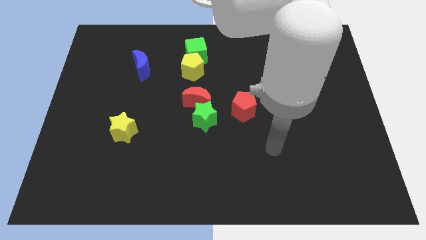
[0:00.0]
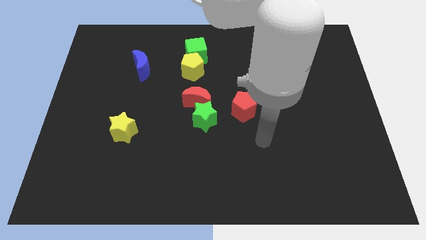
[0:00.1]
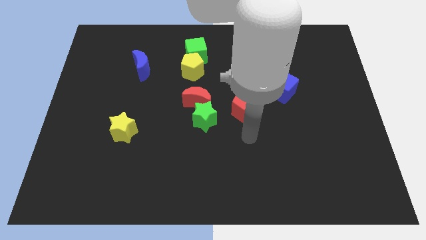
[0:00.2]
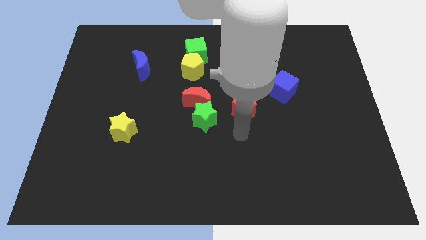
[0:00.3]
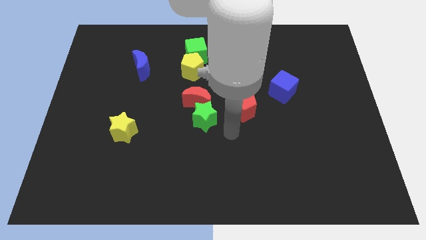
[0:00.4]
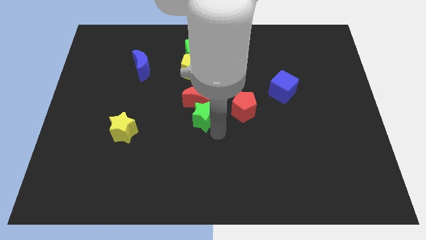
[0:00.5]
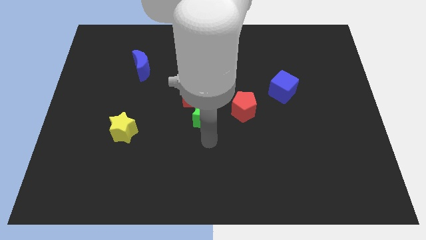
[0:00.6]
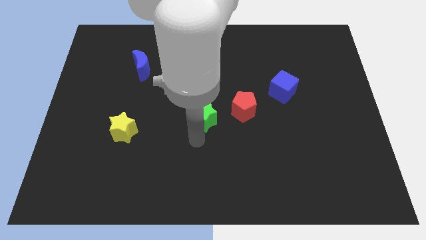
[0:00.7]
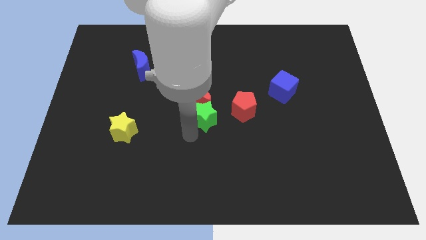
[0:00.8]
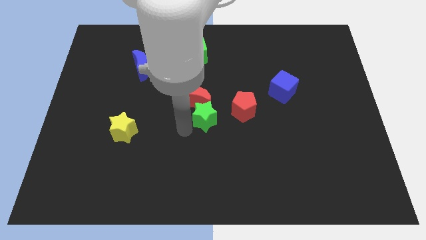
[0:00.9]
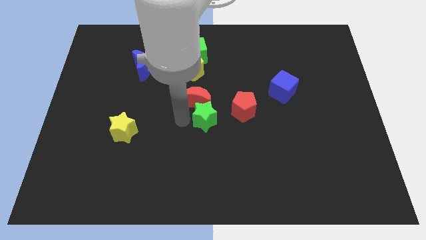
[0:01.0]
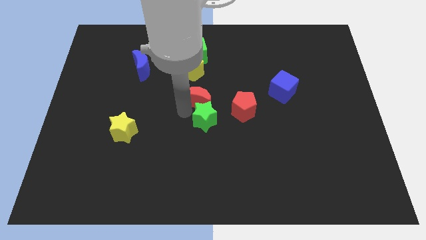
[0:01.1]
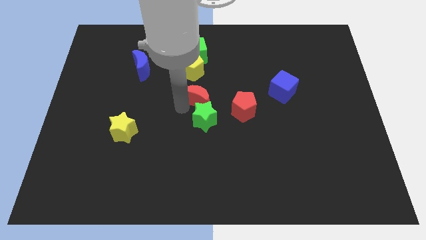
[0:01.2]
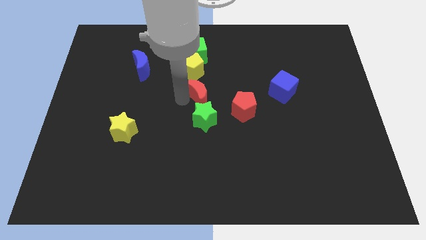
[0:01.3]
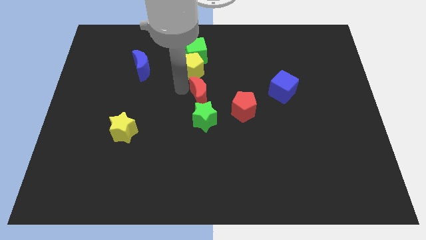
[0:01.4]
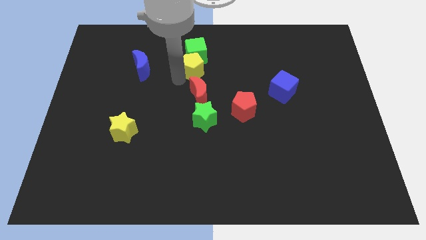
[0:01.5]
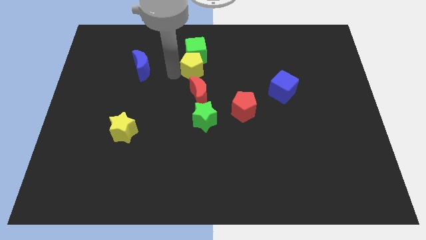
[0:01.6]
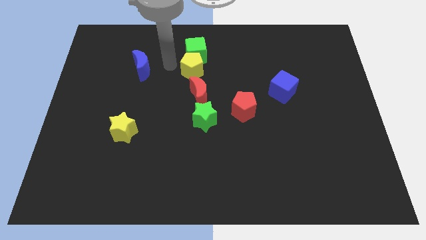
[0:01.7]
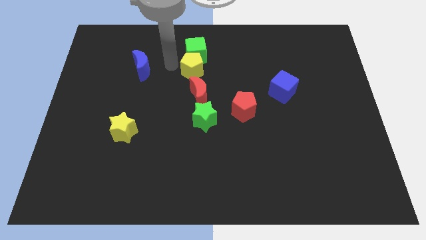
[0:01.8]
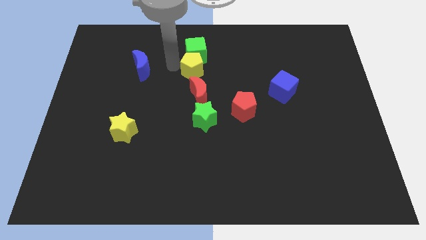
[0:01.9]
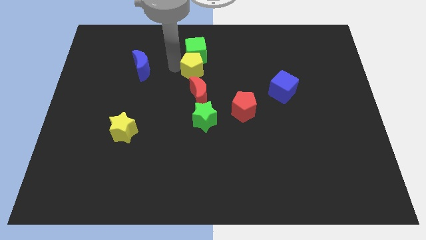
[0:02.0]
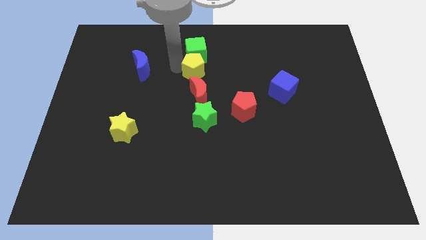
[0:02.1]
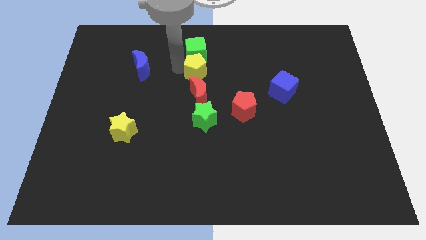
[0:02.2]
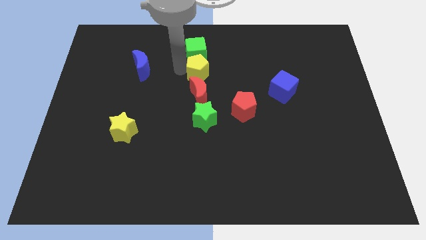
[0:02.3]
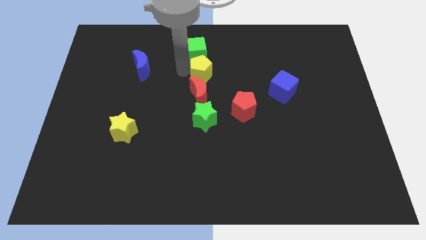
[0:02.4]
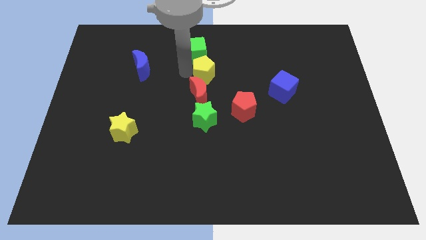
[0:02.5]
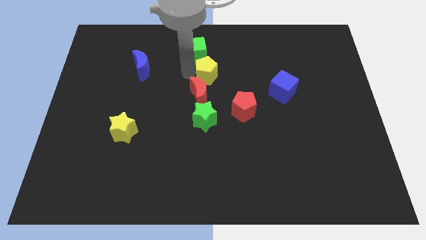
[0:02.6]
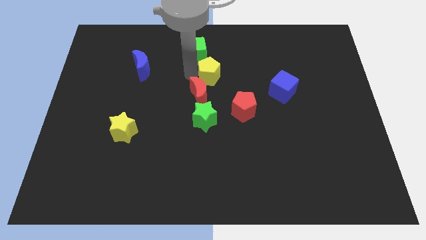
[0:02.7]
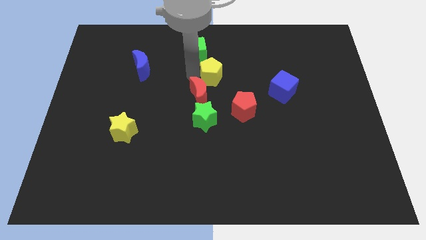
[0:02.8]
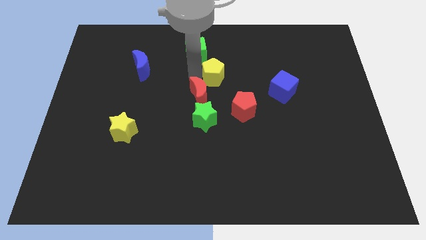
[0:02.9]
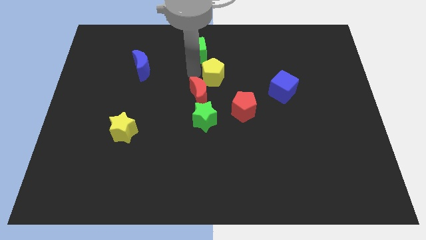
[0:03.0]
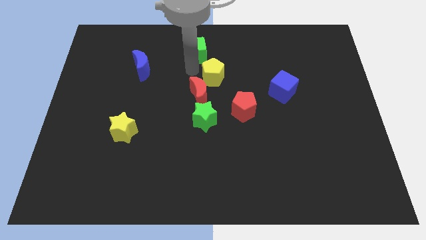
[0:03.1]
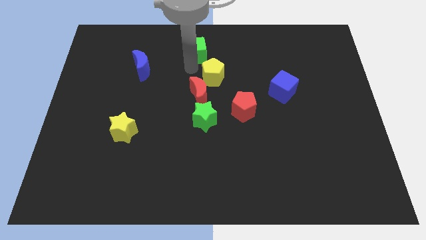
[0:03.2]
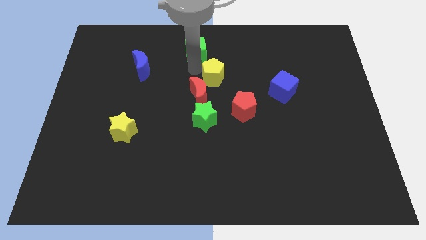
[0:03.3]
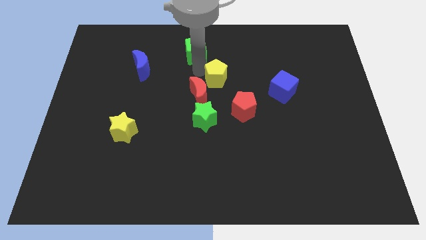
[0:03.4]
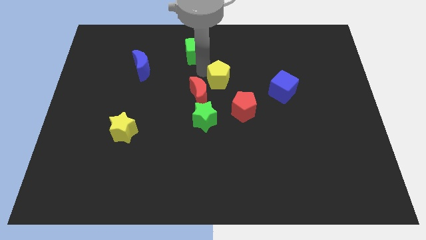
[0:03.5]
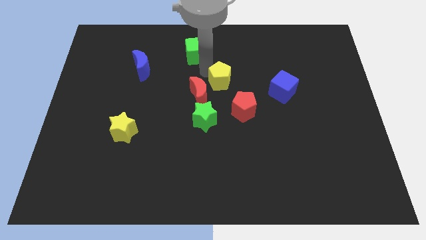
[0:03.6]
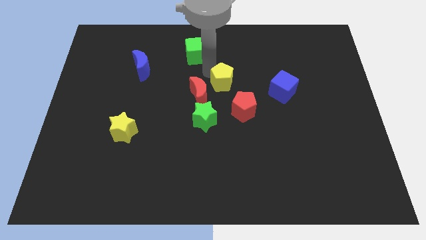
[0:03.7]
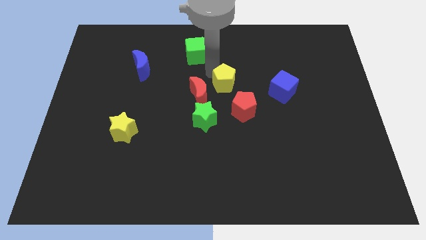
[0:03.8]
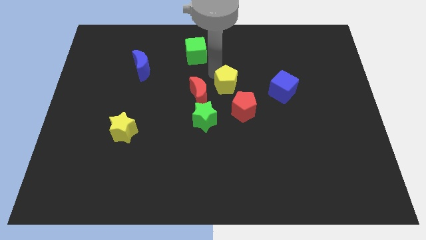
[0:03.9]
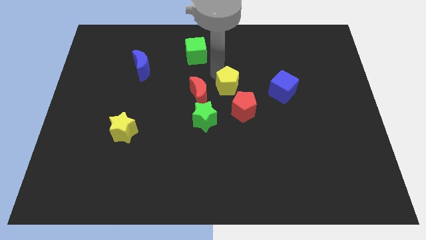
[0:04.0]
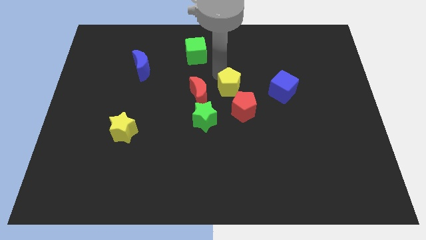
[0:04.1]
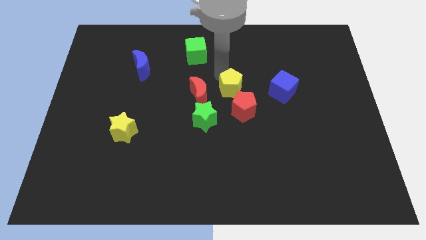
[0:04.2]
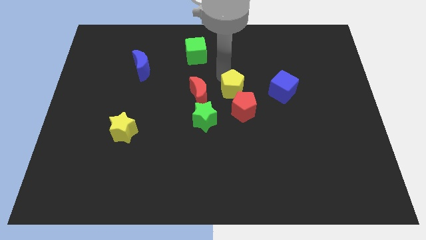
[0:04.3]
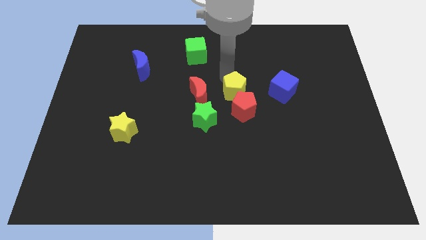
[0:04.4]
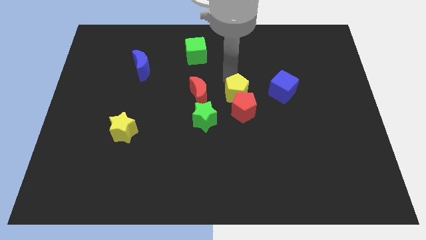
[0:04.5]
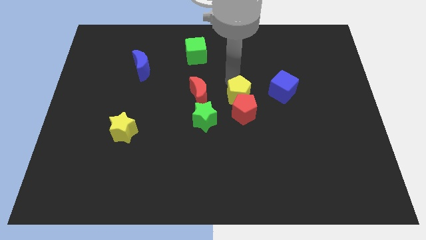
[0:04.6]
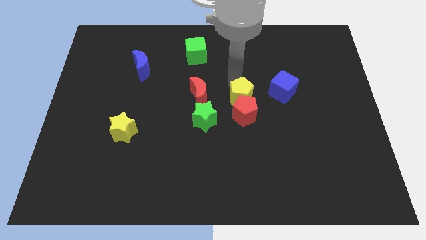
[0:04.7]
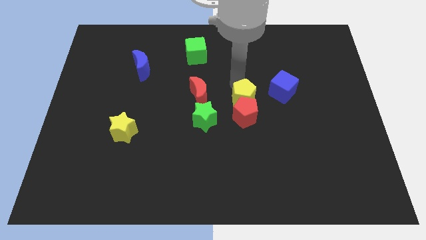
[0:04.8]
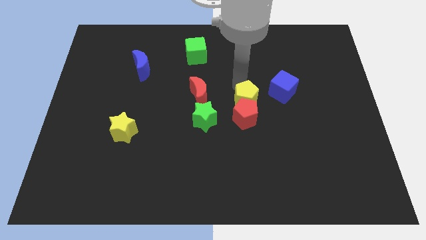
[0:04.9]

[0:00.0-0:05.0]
push the yellow pentagon diagonally down and to the left of the blue cube
